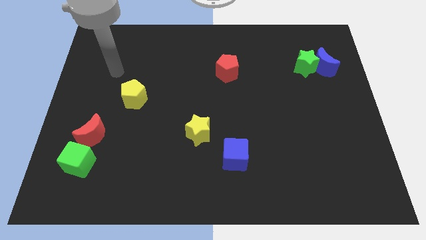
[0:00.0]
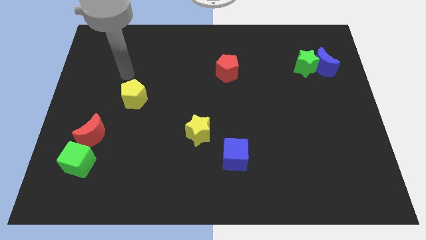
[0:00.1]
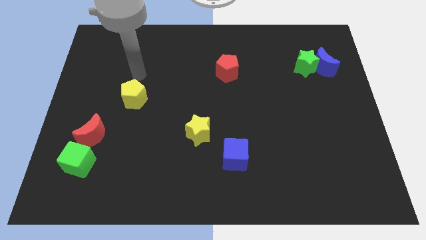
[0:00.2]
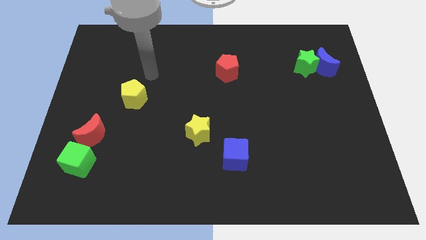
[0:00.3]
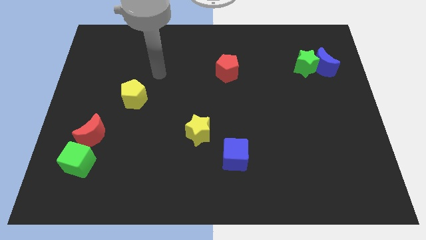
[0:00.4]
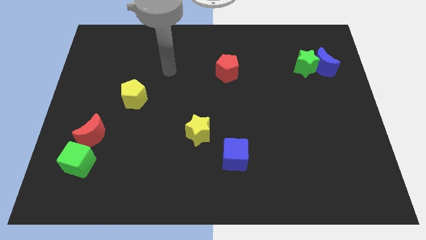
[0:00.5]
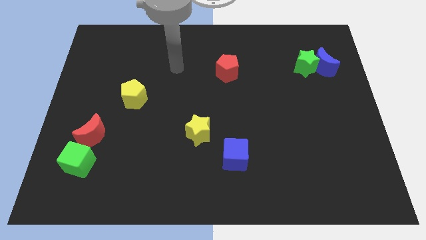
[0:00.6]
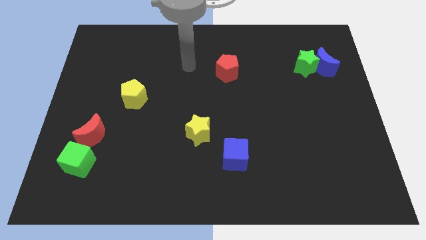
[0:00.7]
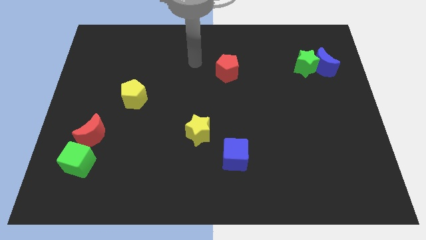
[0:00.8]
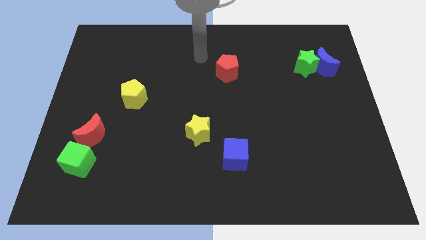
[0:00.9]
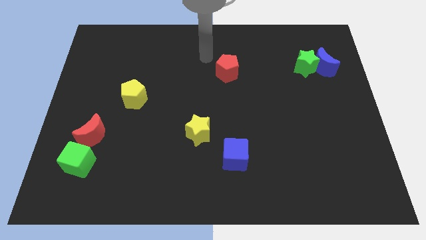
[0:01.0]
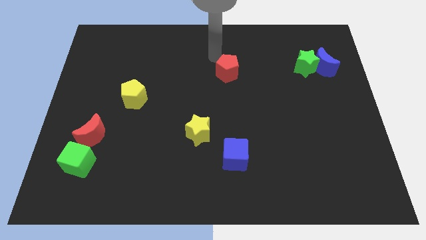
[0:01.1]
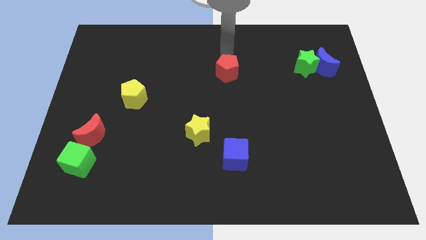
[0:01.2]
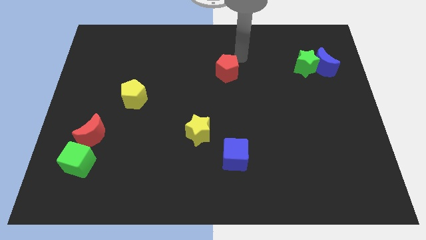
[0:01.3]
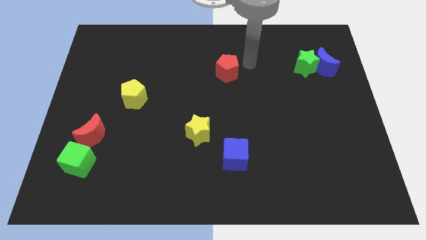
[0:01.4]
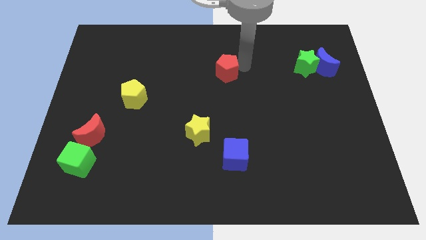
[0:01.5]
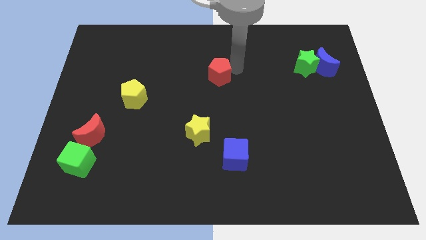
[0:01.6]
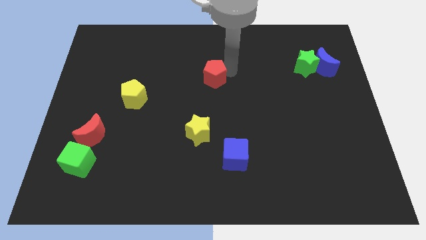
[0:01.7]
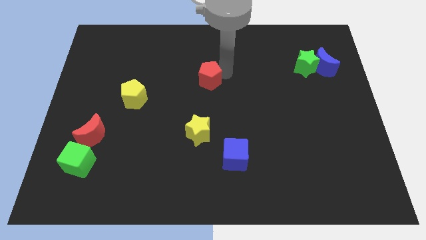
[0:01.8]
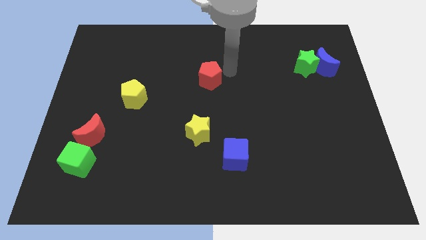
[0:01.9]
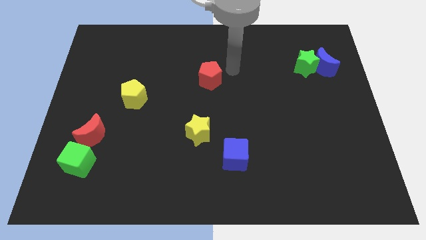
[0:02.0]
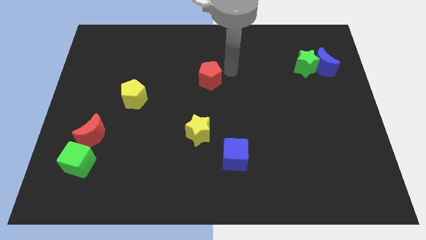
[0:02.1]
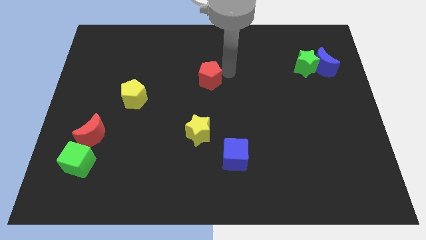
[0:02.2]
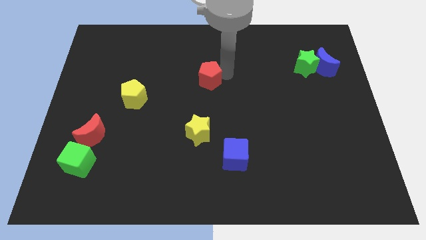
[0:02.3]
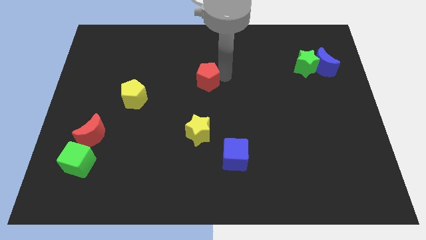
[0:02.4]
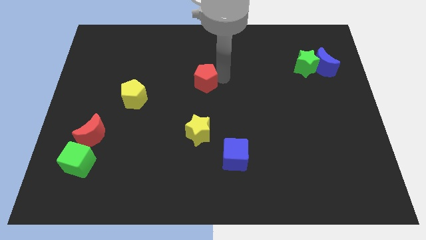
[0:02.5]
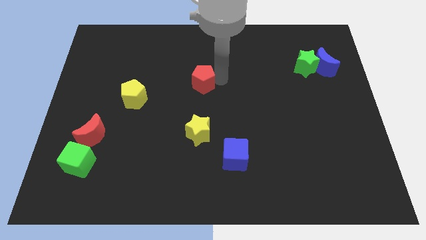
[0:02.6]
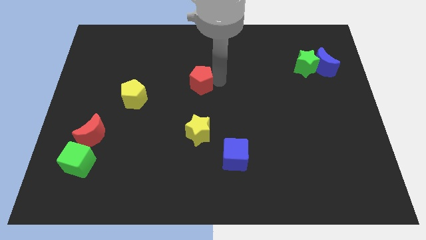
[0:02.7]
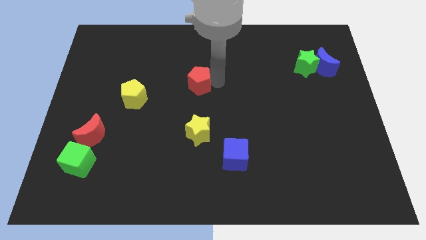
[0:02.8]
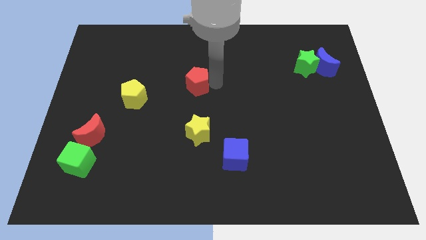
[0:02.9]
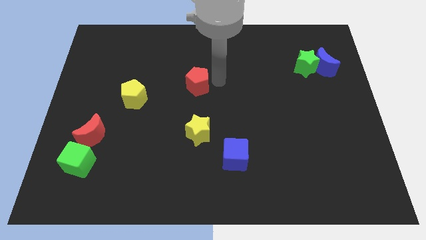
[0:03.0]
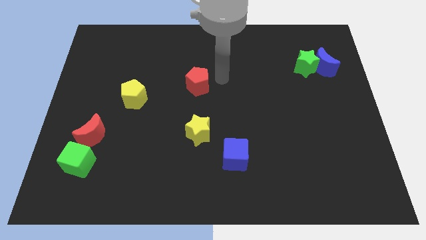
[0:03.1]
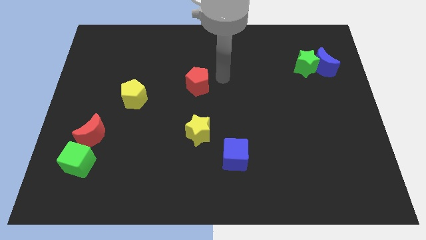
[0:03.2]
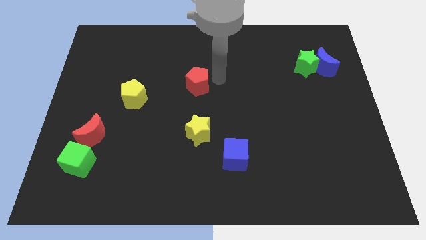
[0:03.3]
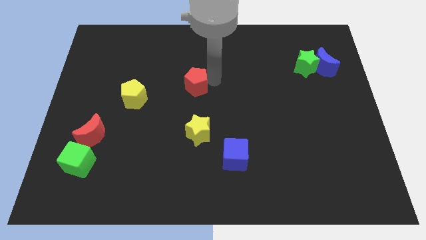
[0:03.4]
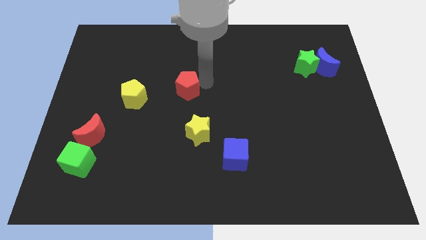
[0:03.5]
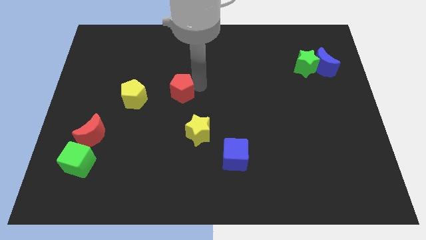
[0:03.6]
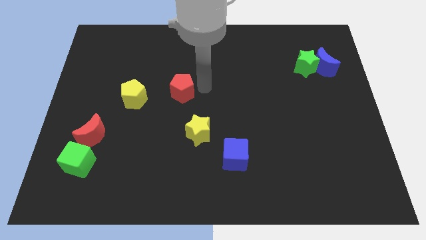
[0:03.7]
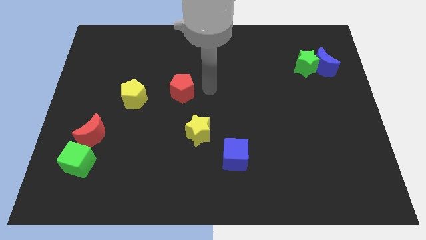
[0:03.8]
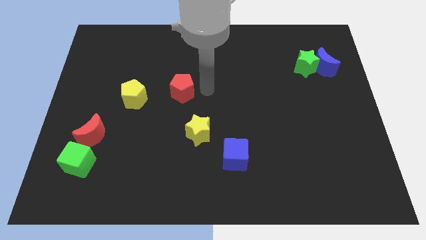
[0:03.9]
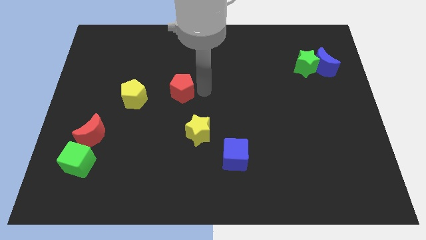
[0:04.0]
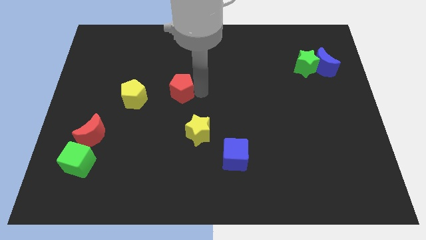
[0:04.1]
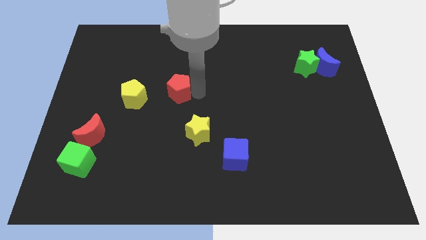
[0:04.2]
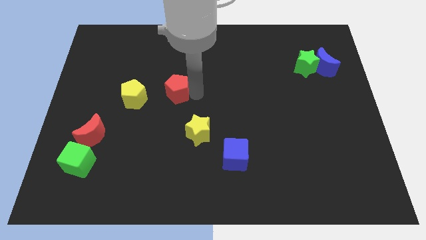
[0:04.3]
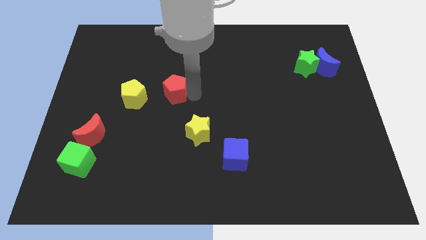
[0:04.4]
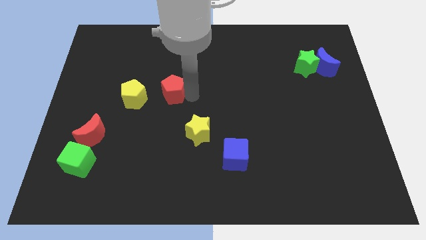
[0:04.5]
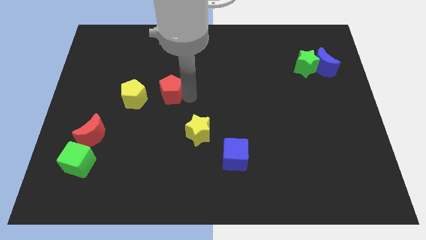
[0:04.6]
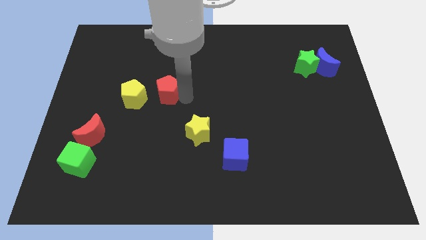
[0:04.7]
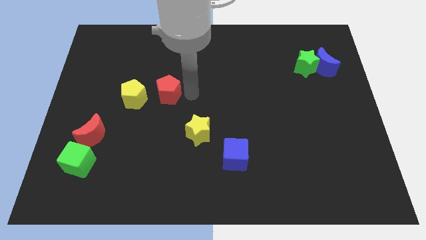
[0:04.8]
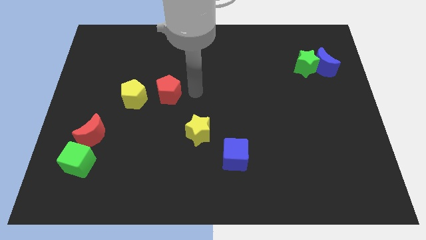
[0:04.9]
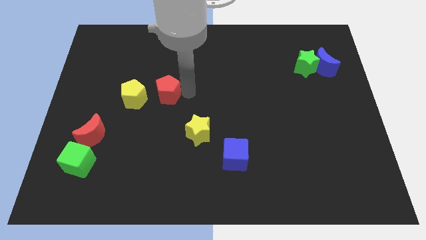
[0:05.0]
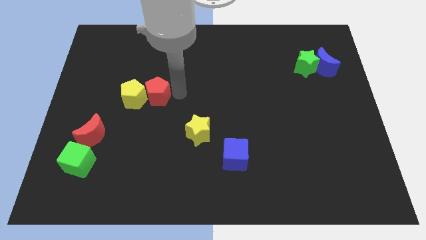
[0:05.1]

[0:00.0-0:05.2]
slide the red pentagon next to the yellow pentagon

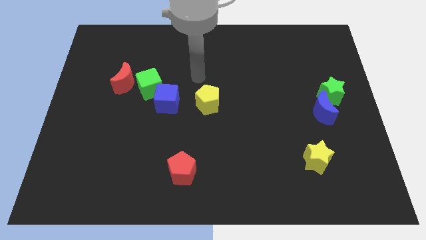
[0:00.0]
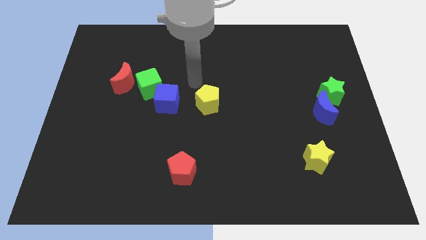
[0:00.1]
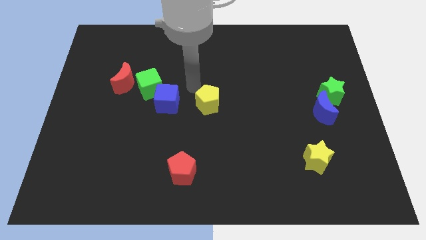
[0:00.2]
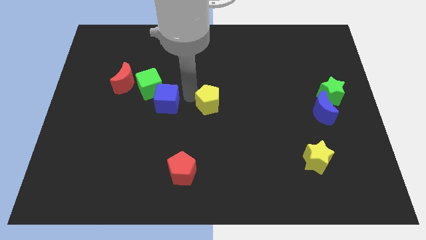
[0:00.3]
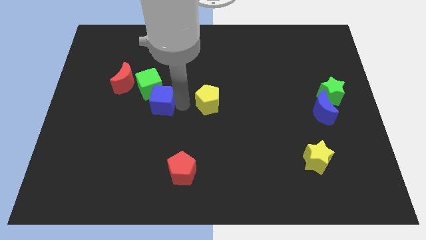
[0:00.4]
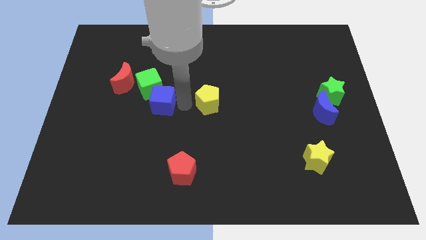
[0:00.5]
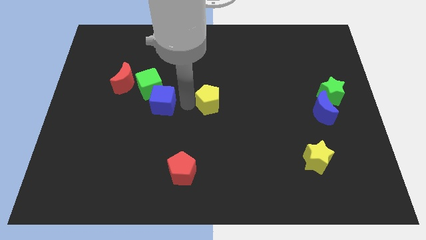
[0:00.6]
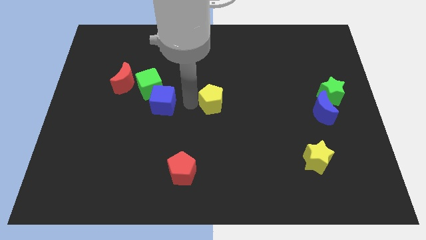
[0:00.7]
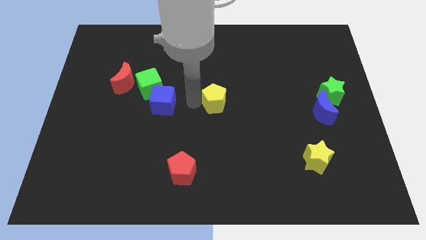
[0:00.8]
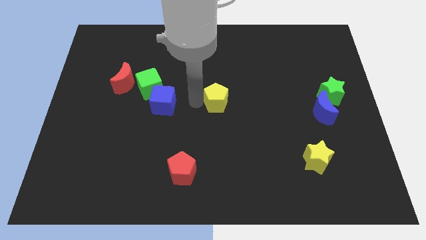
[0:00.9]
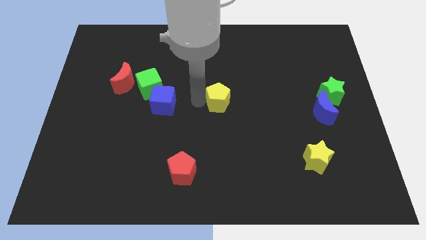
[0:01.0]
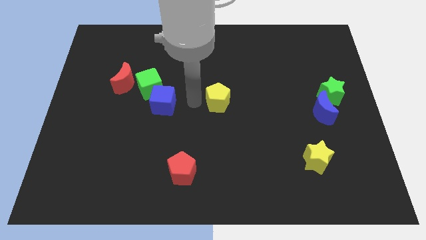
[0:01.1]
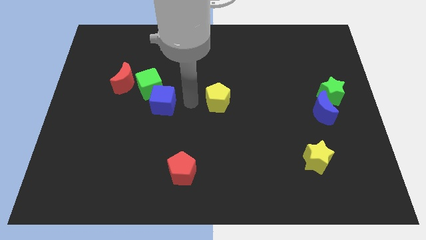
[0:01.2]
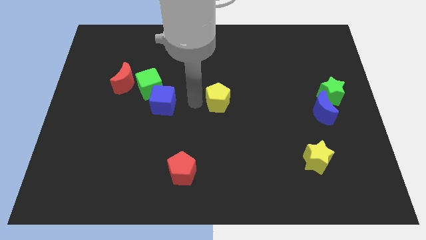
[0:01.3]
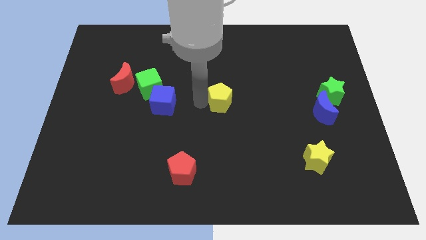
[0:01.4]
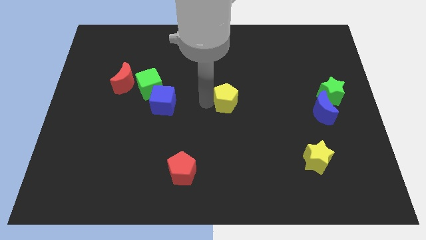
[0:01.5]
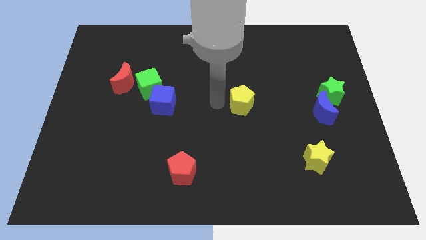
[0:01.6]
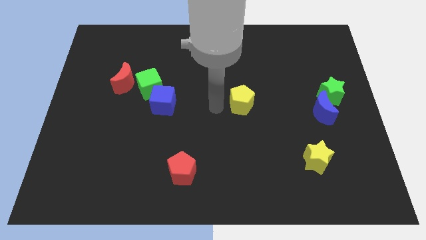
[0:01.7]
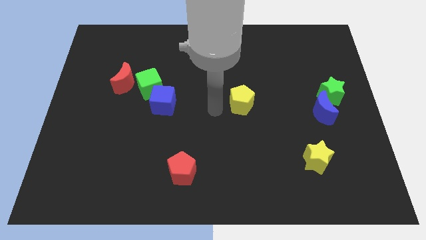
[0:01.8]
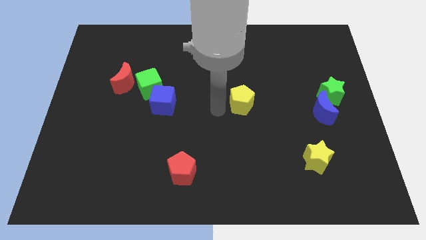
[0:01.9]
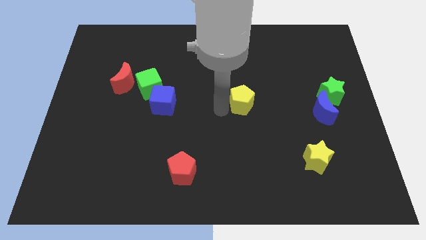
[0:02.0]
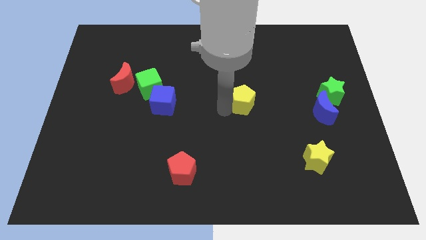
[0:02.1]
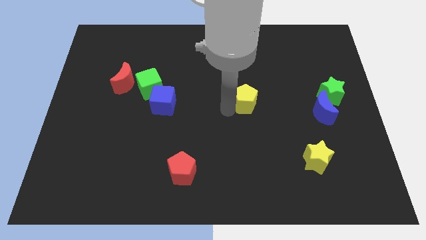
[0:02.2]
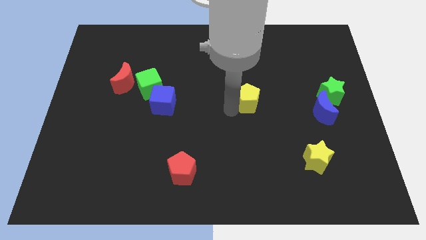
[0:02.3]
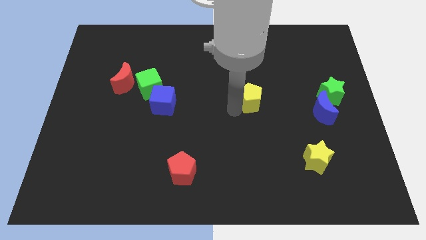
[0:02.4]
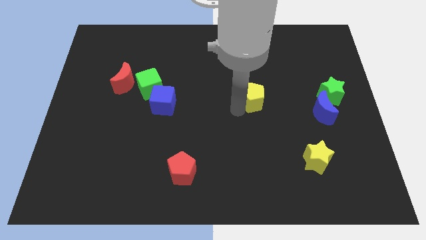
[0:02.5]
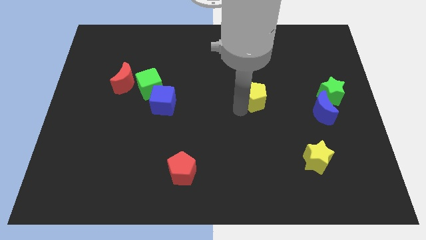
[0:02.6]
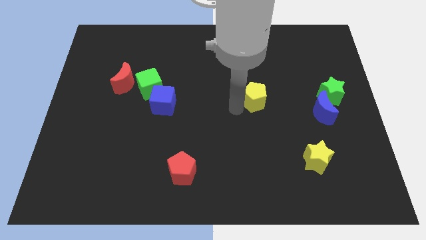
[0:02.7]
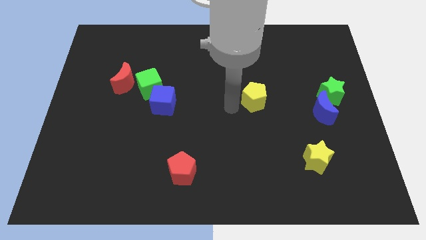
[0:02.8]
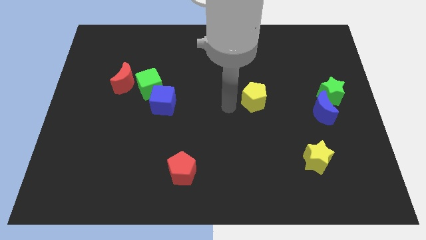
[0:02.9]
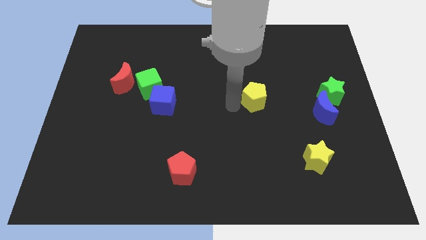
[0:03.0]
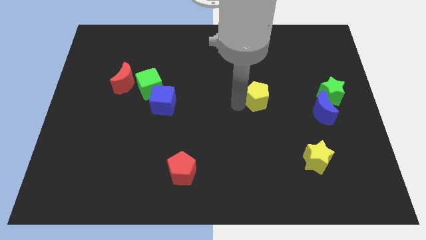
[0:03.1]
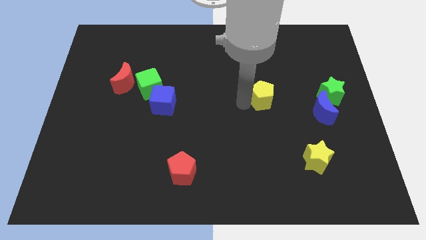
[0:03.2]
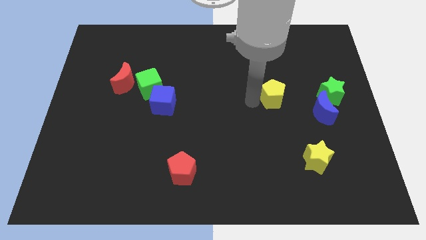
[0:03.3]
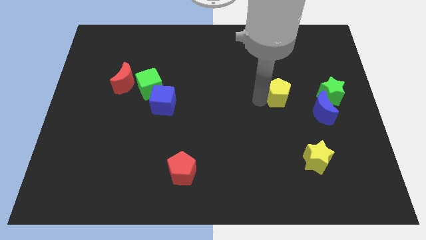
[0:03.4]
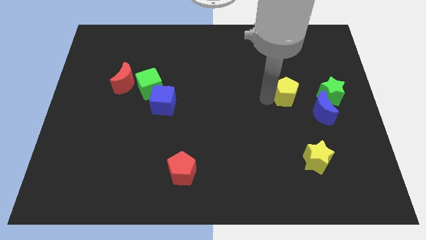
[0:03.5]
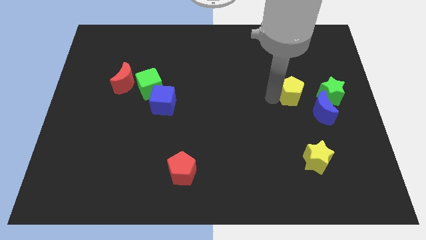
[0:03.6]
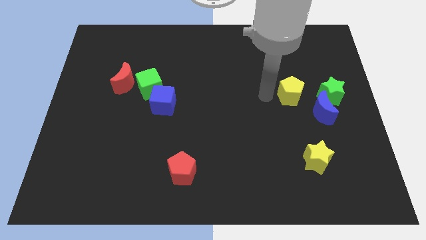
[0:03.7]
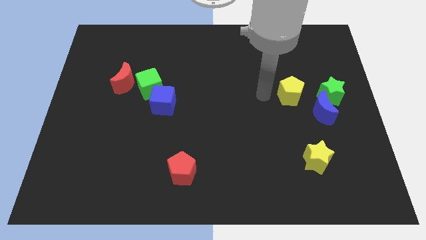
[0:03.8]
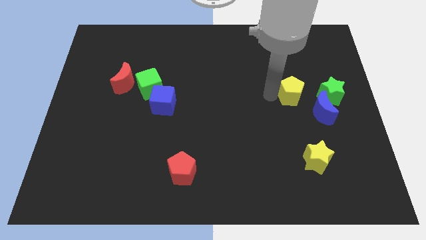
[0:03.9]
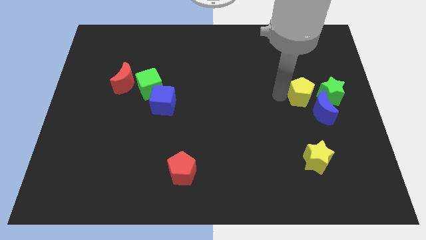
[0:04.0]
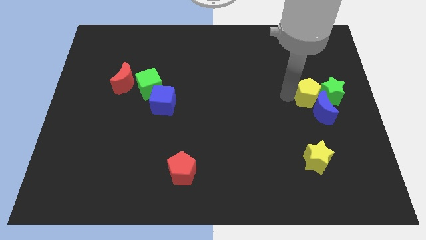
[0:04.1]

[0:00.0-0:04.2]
move the yellow pentagon towards the green star
